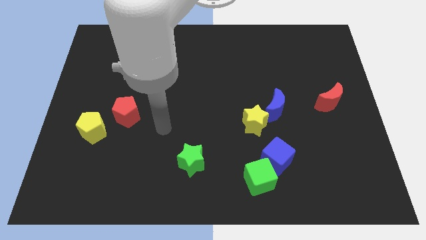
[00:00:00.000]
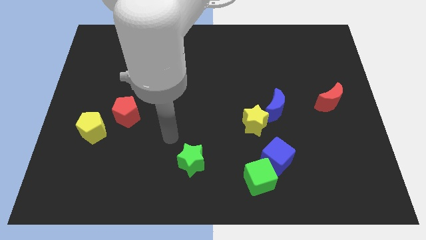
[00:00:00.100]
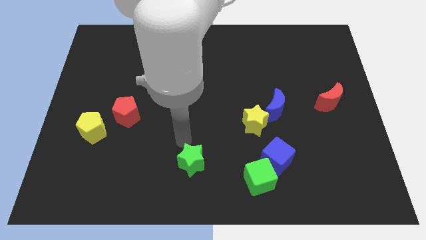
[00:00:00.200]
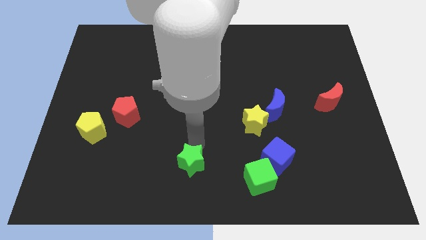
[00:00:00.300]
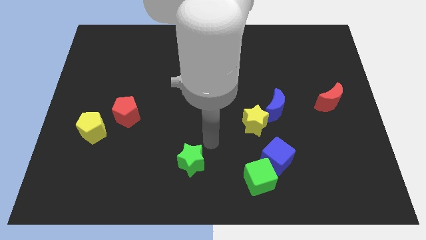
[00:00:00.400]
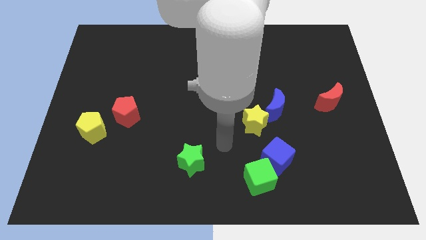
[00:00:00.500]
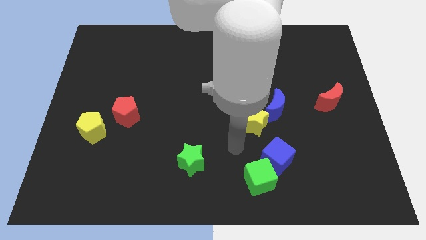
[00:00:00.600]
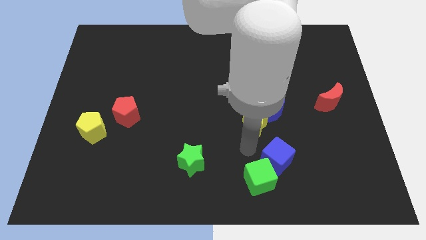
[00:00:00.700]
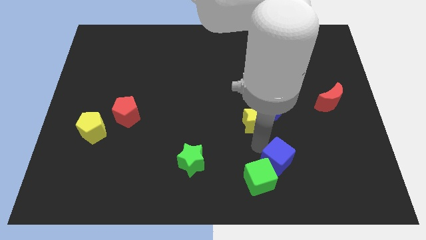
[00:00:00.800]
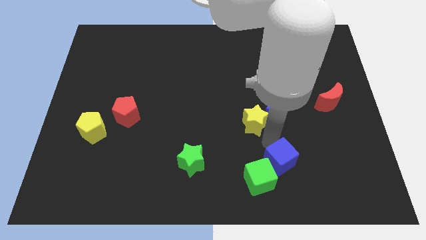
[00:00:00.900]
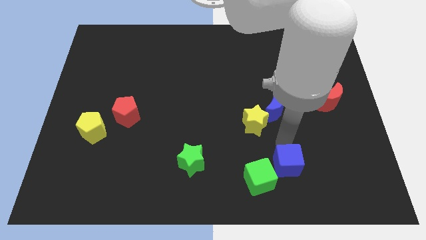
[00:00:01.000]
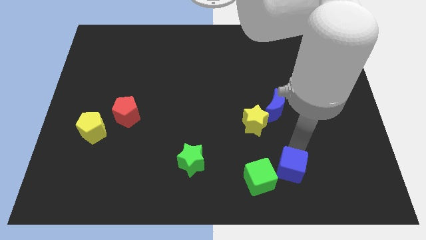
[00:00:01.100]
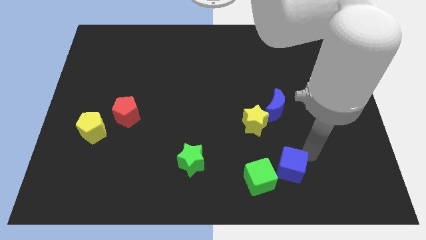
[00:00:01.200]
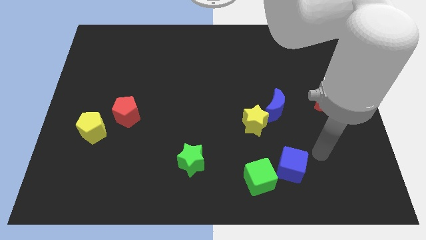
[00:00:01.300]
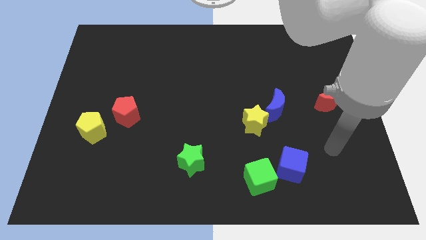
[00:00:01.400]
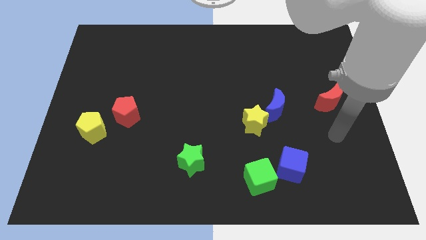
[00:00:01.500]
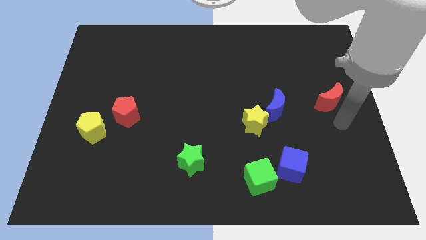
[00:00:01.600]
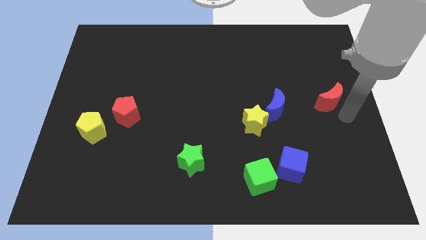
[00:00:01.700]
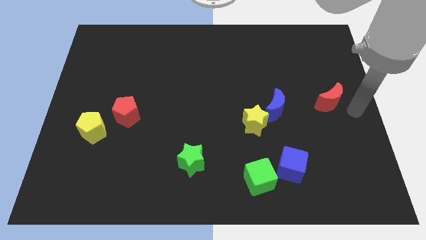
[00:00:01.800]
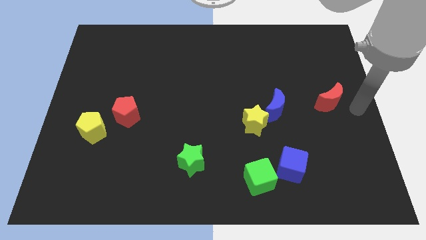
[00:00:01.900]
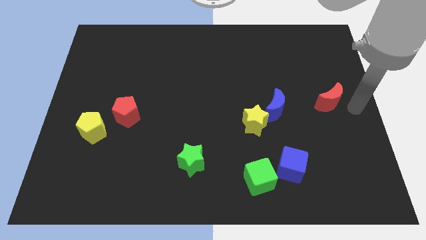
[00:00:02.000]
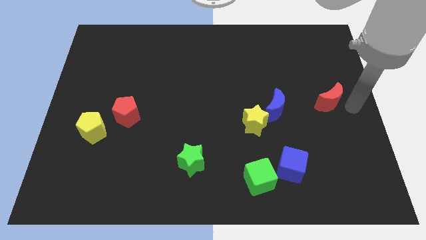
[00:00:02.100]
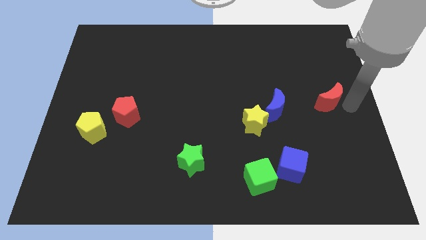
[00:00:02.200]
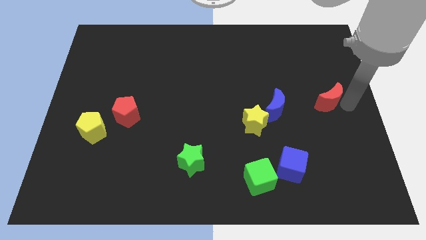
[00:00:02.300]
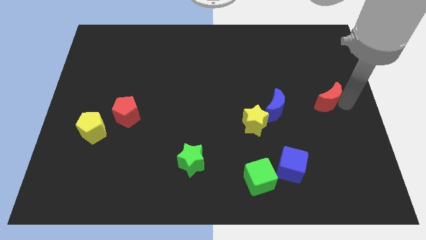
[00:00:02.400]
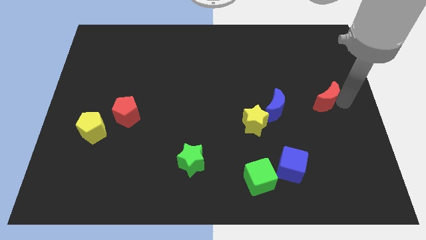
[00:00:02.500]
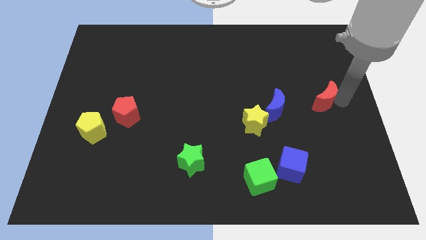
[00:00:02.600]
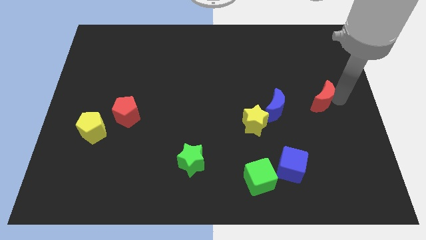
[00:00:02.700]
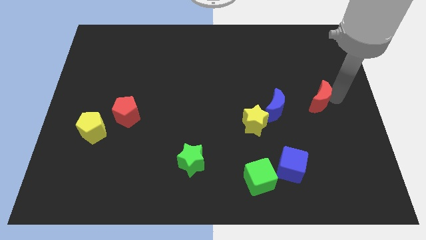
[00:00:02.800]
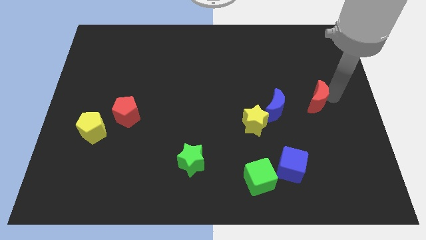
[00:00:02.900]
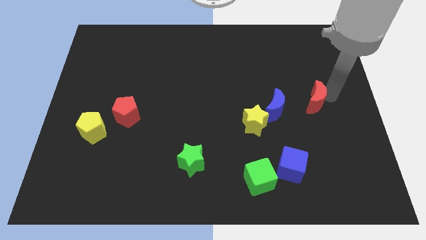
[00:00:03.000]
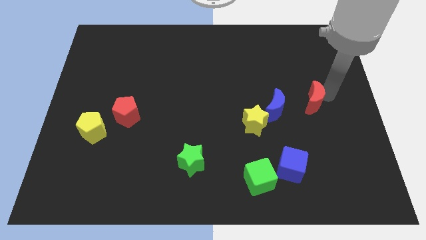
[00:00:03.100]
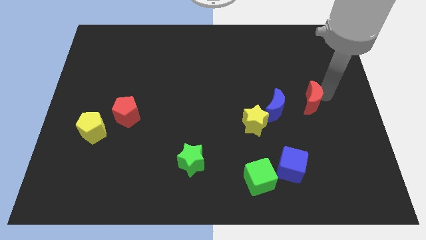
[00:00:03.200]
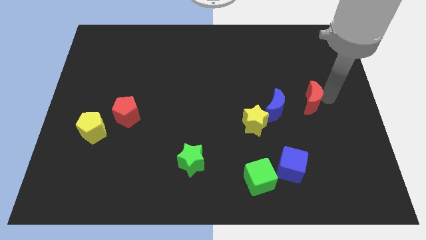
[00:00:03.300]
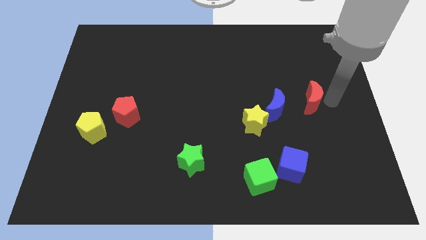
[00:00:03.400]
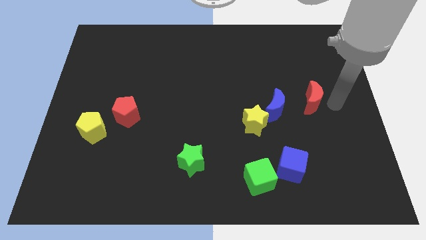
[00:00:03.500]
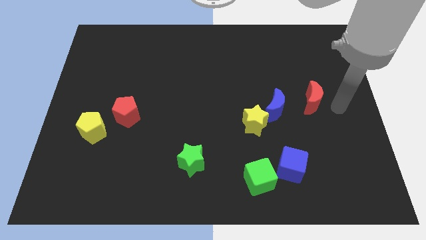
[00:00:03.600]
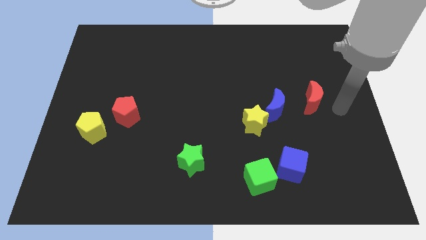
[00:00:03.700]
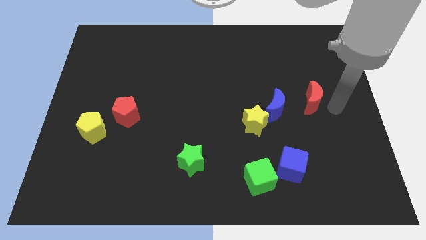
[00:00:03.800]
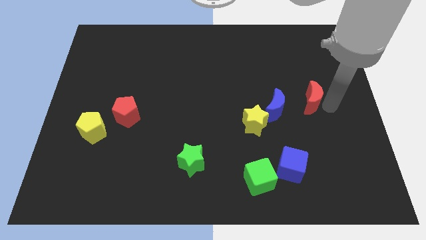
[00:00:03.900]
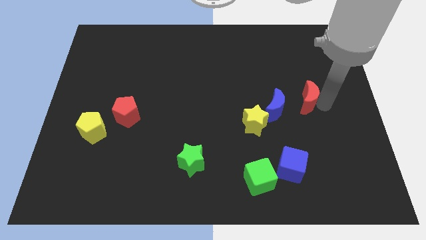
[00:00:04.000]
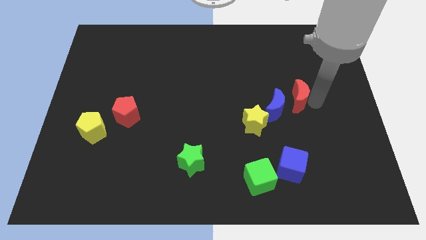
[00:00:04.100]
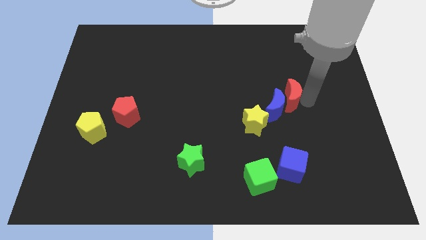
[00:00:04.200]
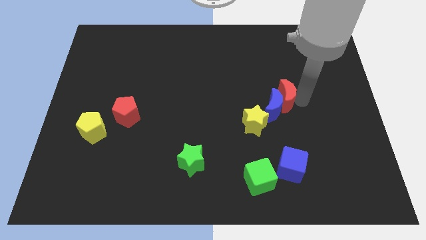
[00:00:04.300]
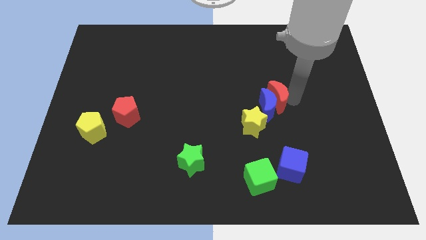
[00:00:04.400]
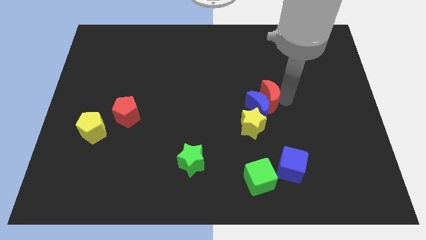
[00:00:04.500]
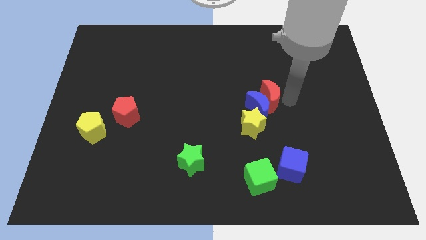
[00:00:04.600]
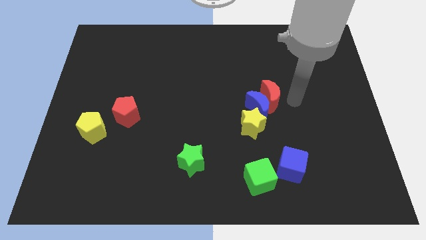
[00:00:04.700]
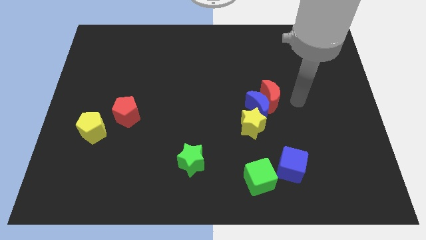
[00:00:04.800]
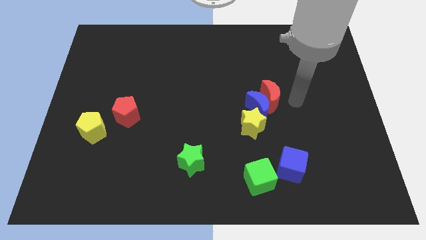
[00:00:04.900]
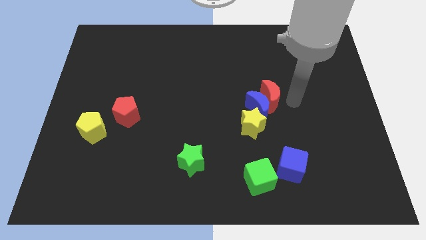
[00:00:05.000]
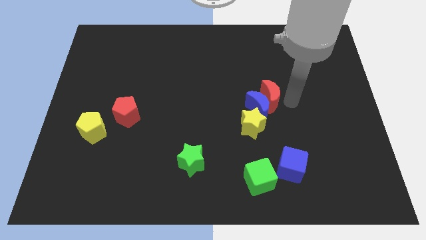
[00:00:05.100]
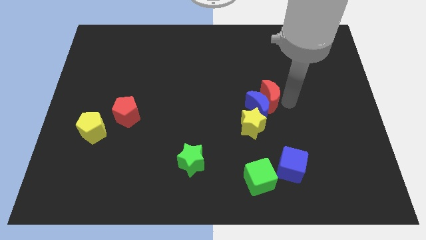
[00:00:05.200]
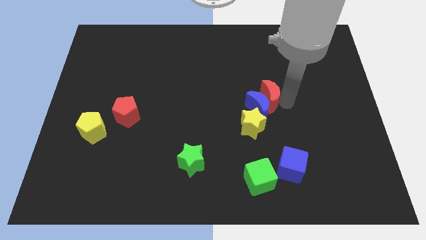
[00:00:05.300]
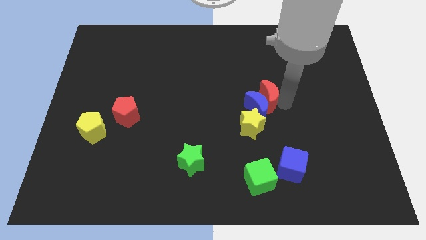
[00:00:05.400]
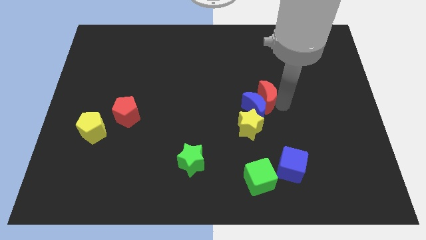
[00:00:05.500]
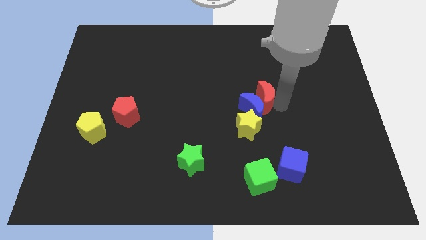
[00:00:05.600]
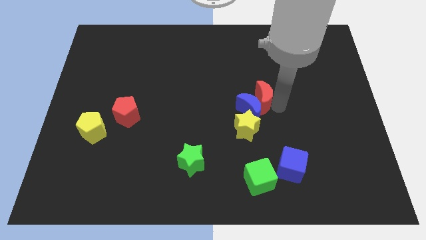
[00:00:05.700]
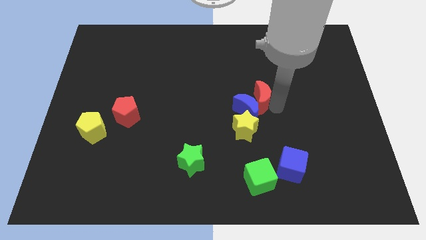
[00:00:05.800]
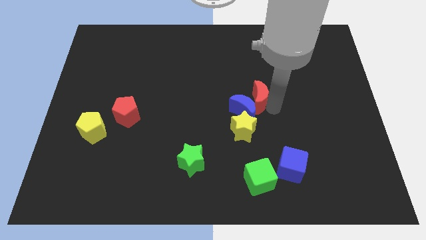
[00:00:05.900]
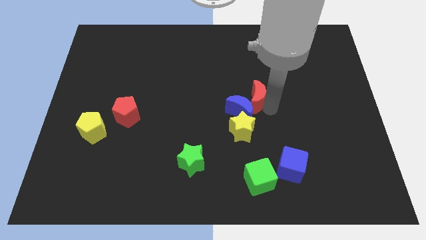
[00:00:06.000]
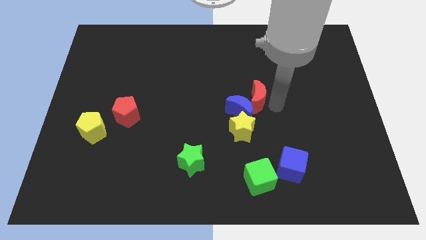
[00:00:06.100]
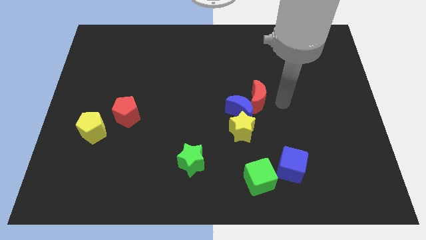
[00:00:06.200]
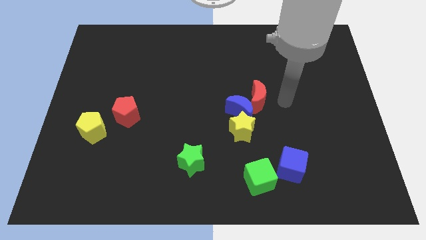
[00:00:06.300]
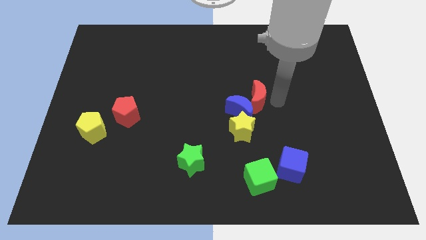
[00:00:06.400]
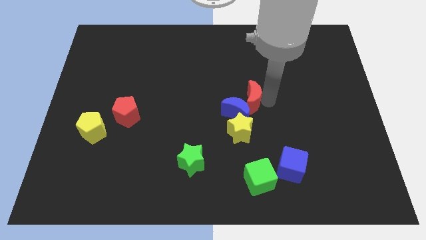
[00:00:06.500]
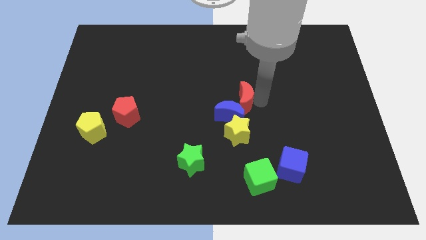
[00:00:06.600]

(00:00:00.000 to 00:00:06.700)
move the red moon left

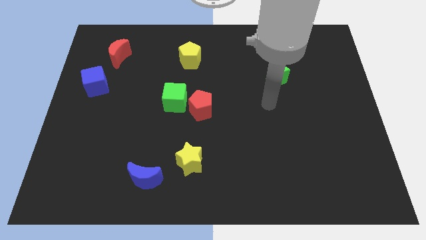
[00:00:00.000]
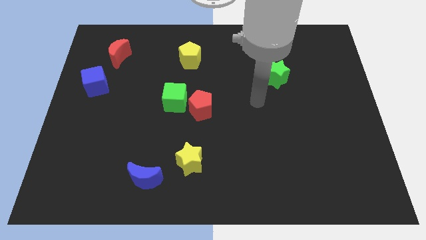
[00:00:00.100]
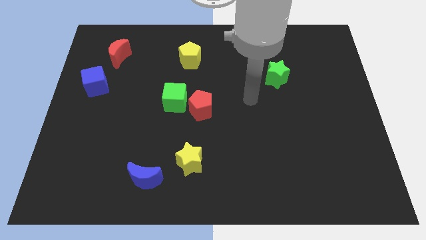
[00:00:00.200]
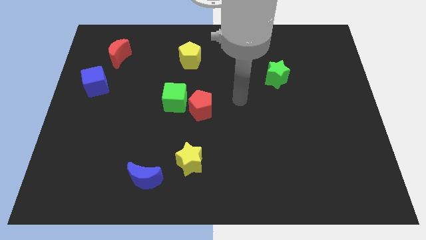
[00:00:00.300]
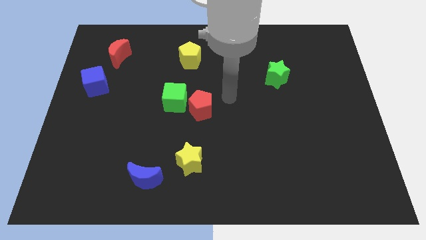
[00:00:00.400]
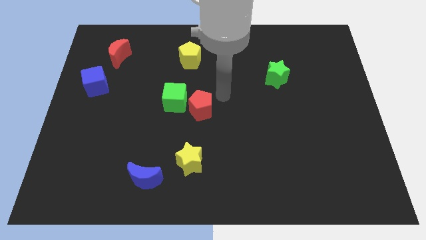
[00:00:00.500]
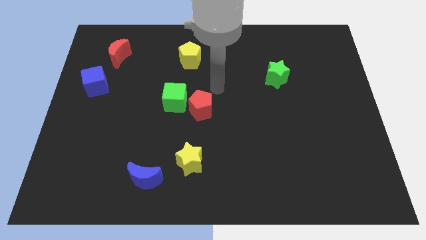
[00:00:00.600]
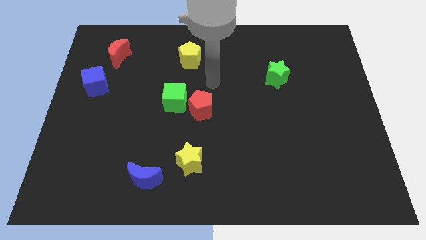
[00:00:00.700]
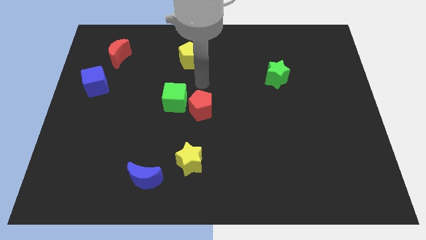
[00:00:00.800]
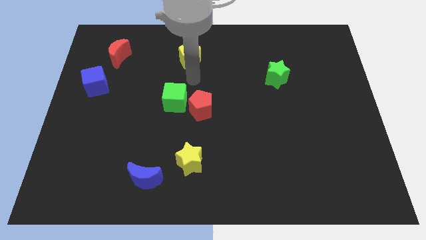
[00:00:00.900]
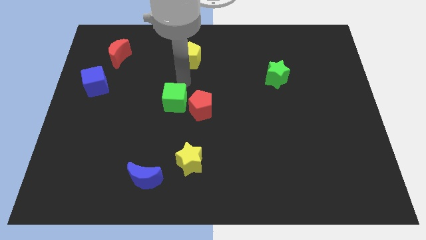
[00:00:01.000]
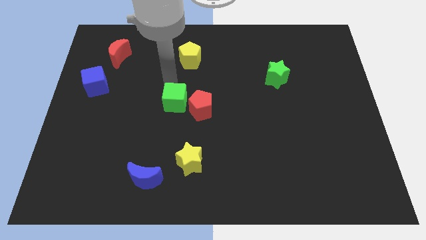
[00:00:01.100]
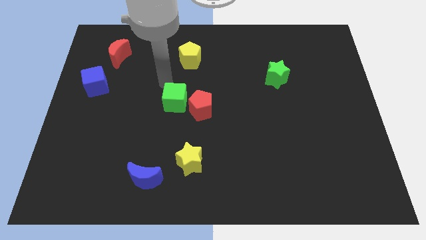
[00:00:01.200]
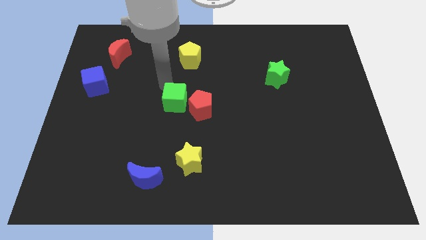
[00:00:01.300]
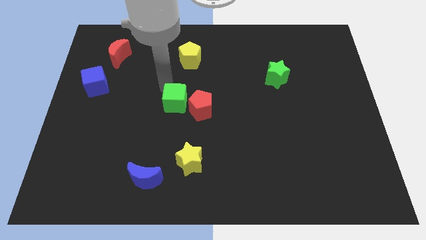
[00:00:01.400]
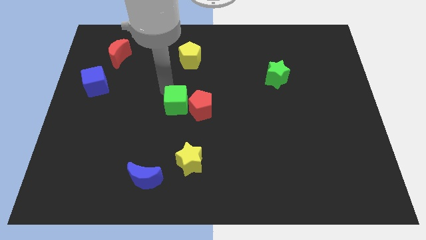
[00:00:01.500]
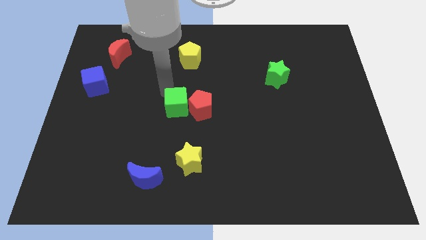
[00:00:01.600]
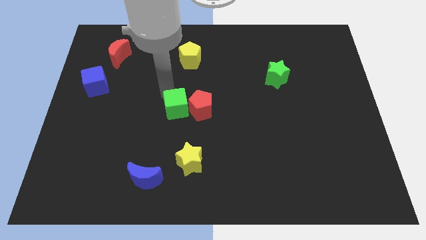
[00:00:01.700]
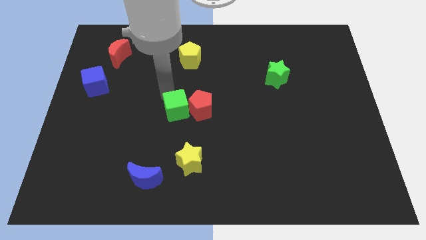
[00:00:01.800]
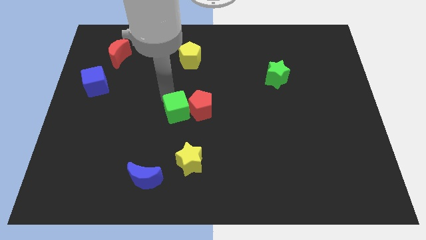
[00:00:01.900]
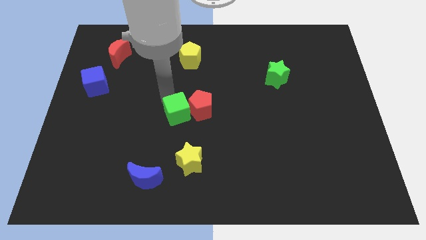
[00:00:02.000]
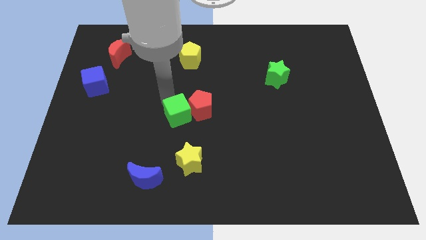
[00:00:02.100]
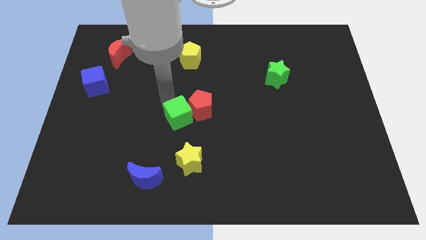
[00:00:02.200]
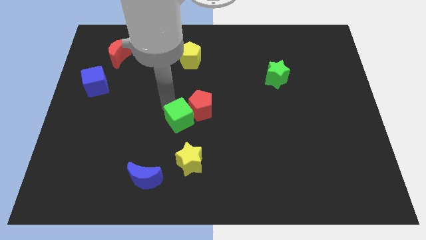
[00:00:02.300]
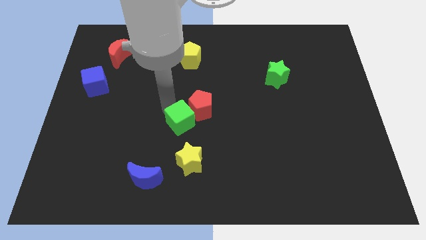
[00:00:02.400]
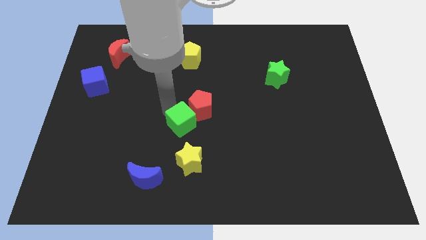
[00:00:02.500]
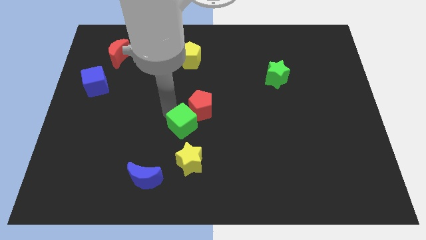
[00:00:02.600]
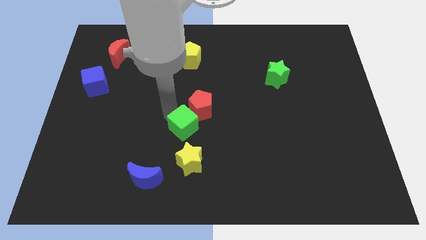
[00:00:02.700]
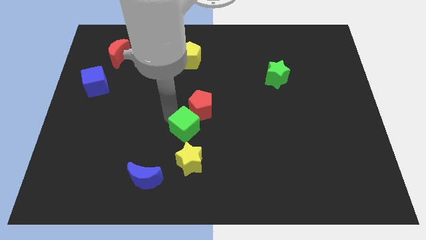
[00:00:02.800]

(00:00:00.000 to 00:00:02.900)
push the green cube a bit down and right
